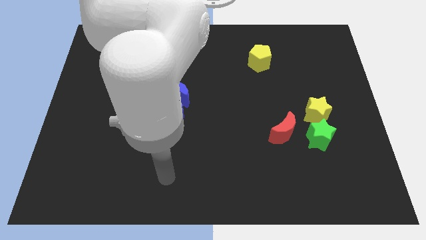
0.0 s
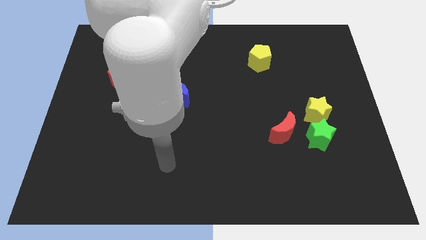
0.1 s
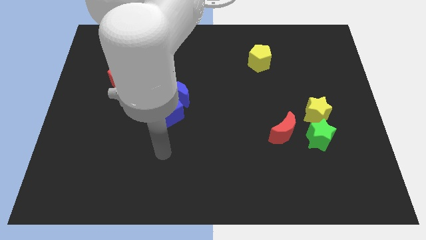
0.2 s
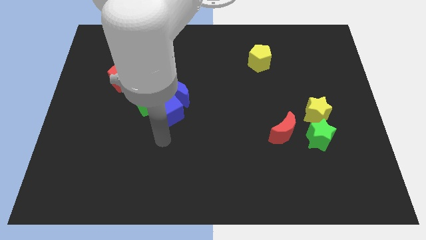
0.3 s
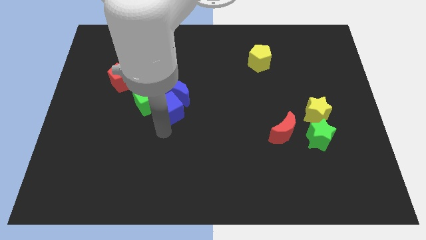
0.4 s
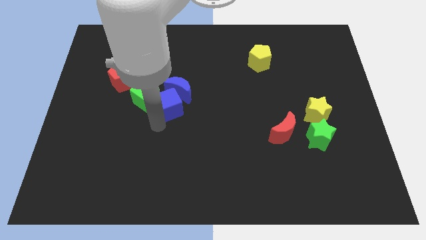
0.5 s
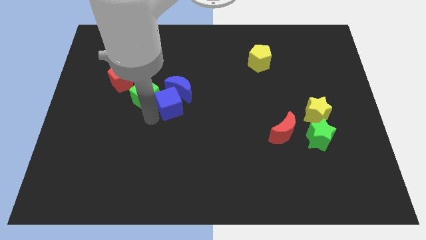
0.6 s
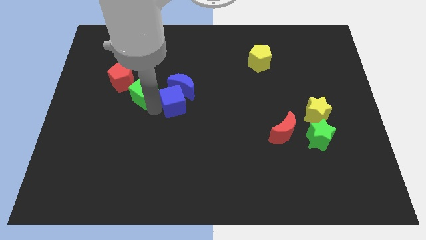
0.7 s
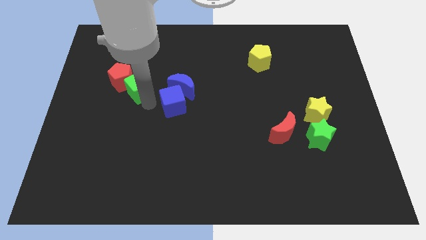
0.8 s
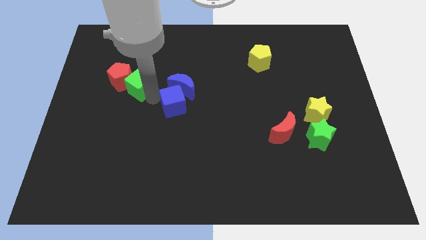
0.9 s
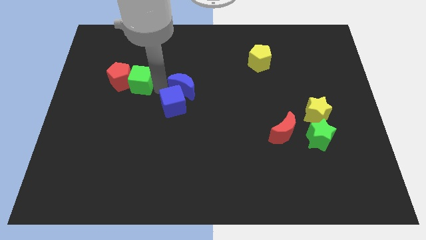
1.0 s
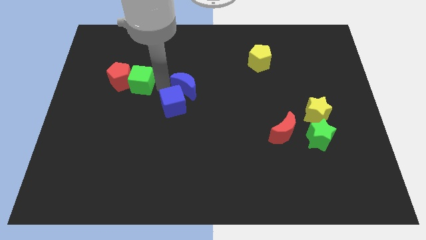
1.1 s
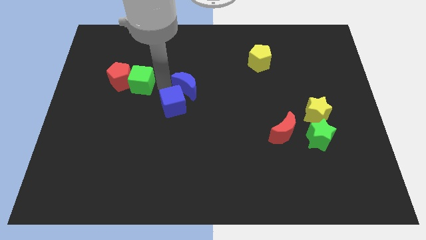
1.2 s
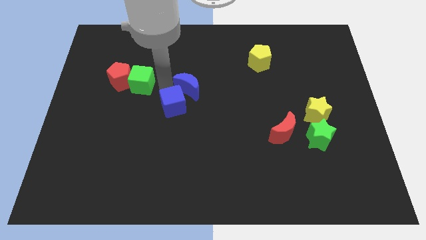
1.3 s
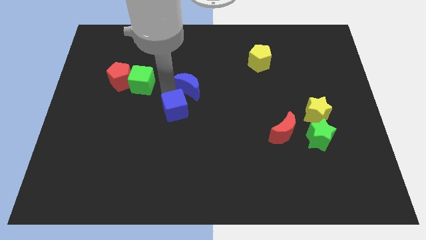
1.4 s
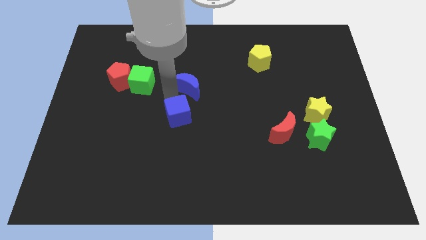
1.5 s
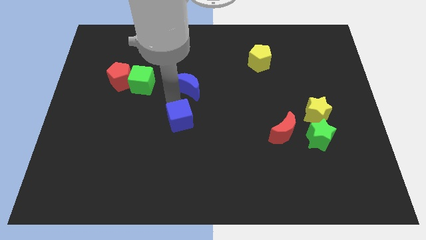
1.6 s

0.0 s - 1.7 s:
pull the blue cube apart from the blue moon and green cube

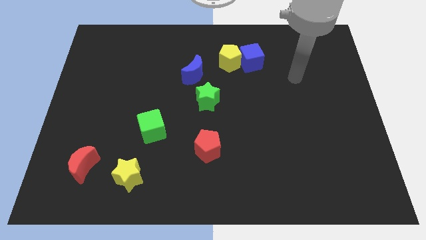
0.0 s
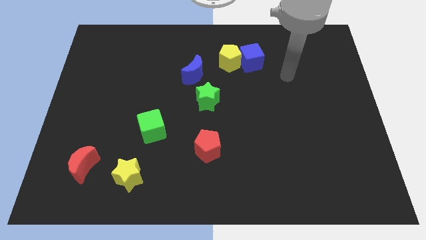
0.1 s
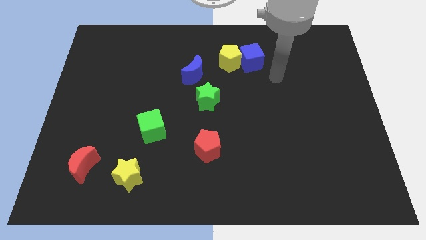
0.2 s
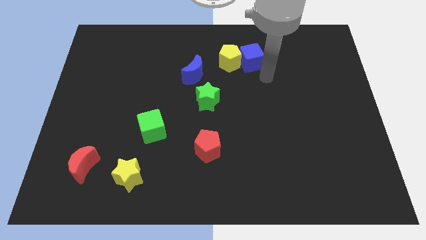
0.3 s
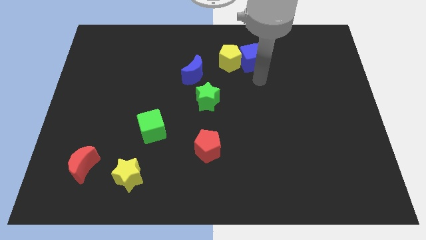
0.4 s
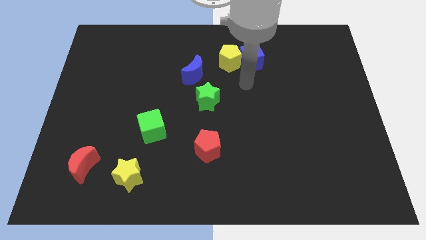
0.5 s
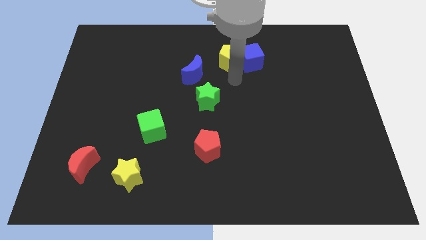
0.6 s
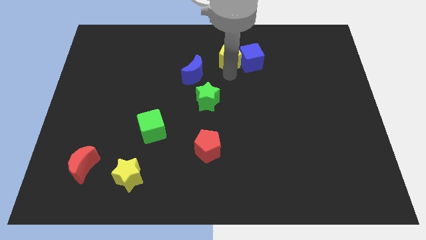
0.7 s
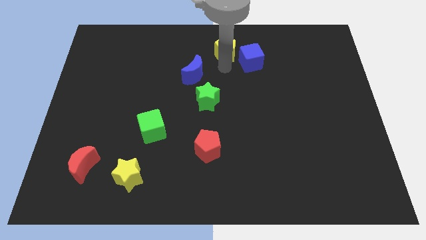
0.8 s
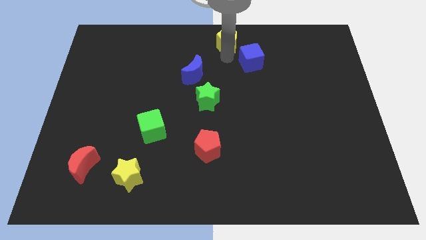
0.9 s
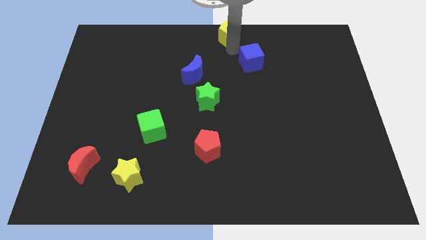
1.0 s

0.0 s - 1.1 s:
pull the blue cube apart from the yellow pentagon

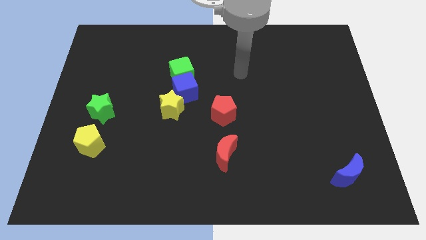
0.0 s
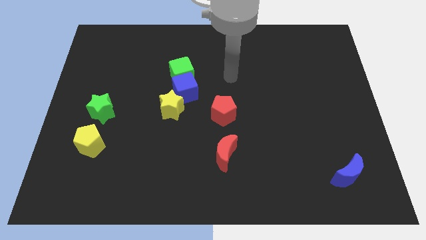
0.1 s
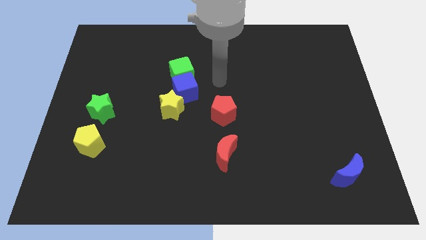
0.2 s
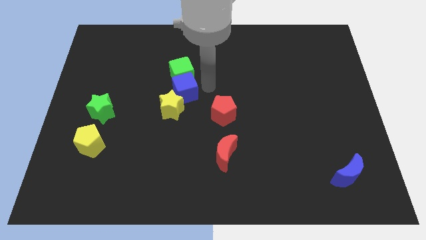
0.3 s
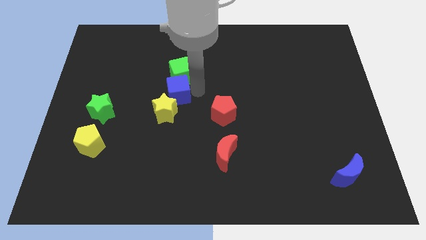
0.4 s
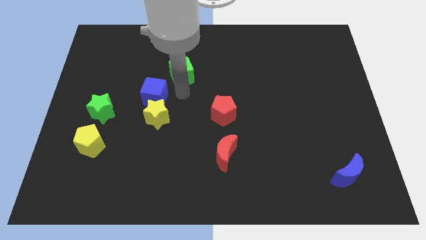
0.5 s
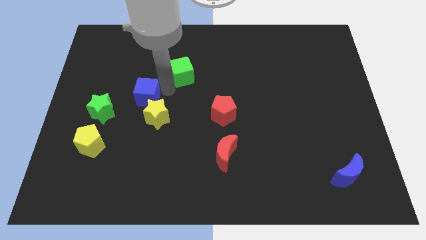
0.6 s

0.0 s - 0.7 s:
separate the green cube from the blue cube

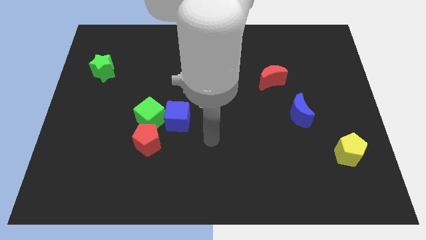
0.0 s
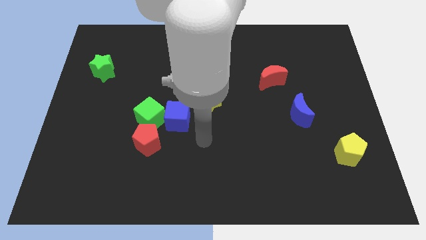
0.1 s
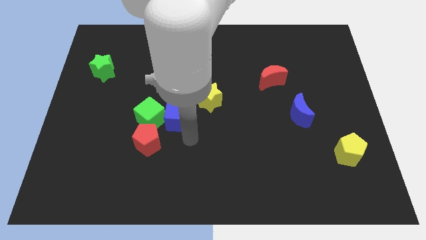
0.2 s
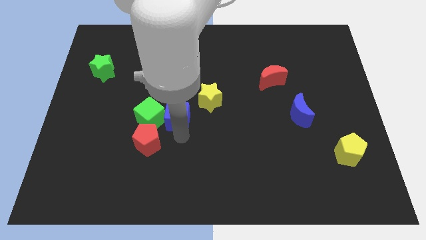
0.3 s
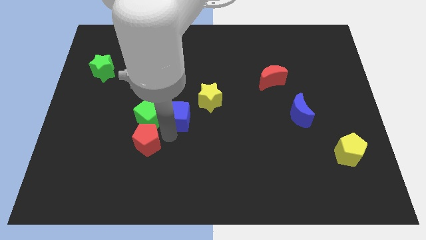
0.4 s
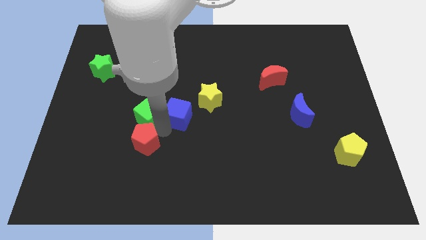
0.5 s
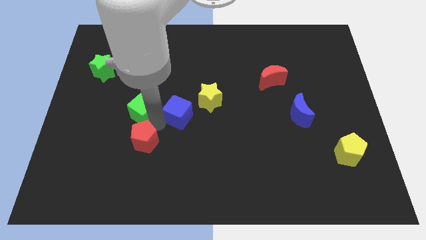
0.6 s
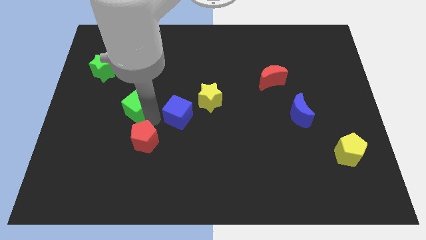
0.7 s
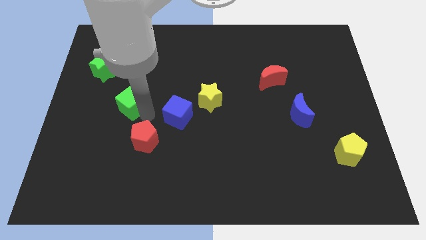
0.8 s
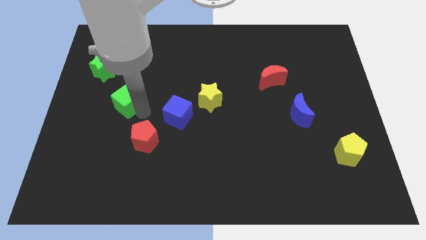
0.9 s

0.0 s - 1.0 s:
pull the green cube apart from the blue cube and red pentagon

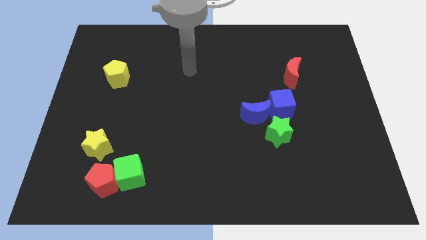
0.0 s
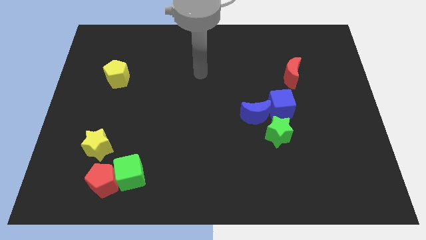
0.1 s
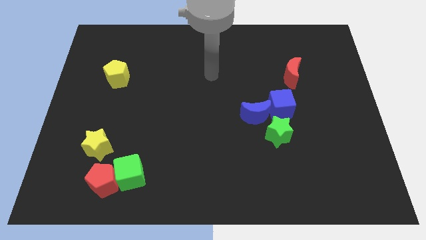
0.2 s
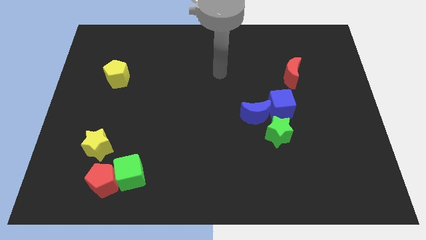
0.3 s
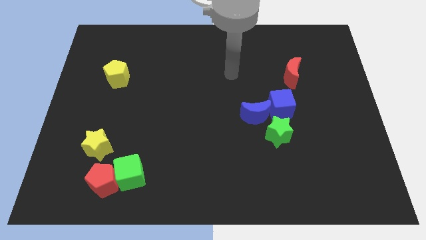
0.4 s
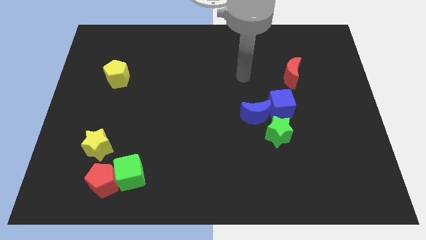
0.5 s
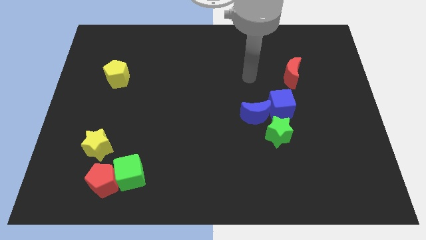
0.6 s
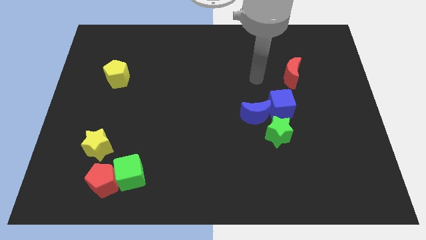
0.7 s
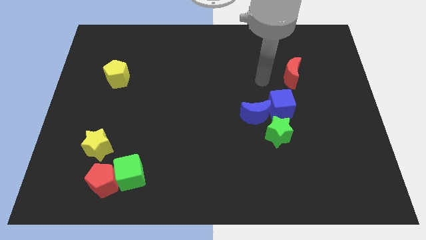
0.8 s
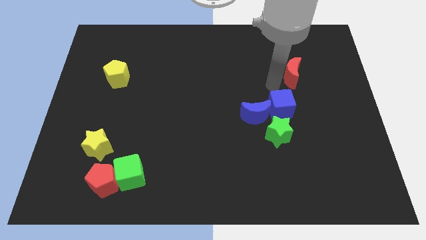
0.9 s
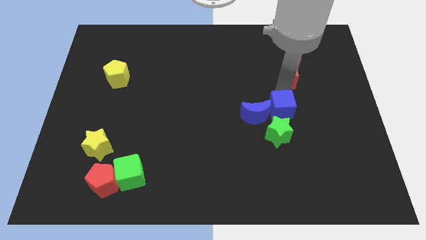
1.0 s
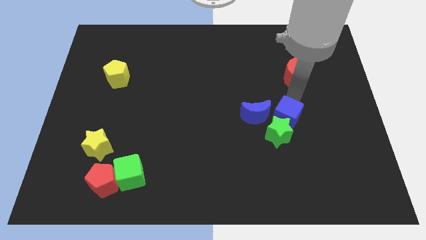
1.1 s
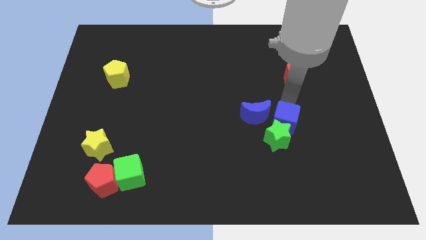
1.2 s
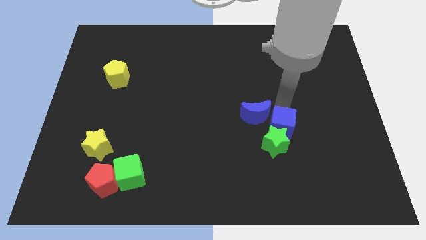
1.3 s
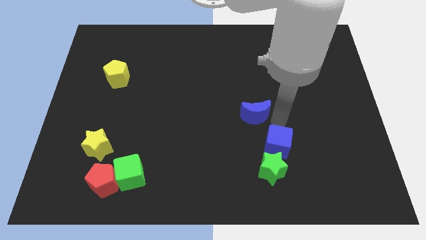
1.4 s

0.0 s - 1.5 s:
move the blue moon away from the blue cube and green star

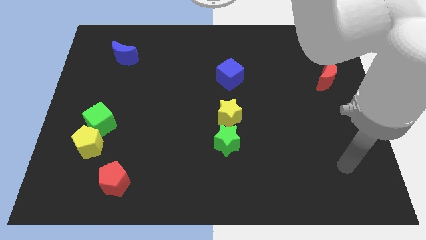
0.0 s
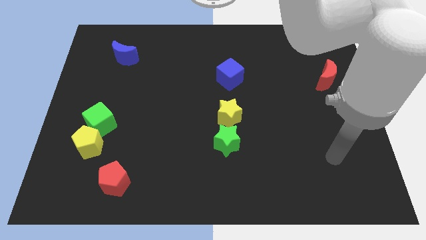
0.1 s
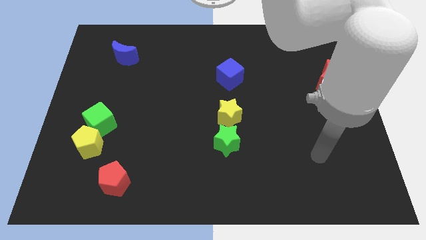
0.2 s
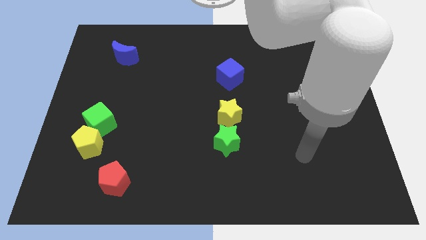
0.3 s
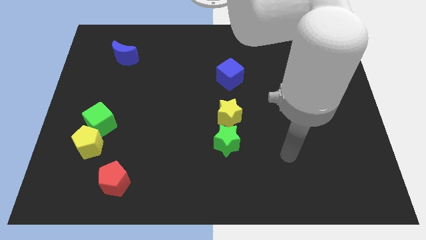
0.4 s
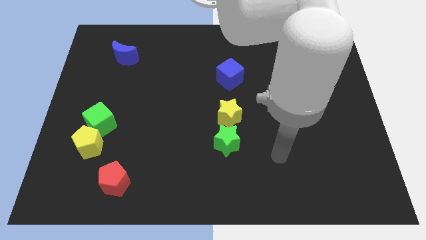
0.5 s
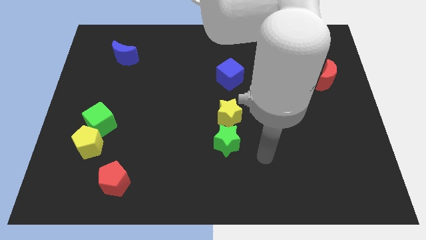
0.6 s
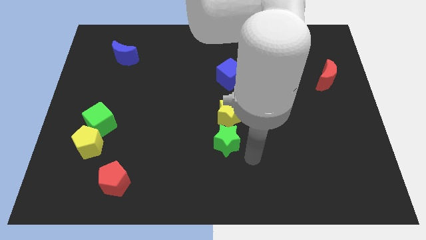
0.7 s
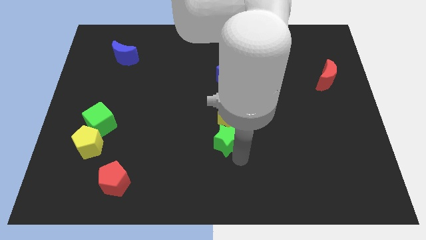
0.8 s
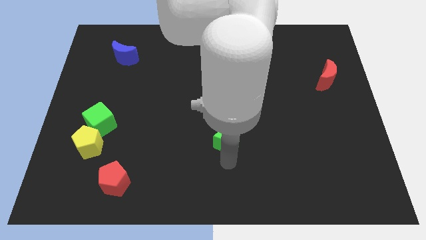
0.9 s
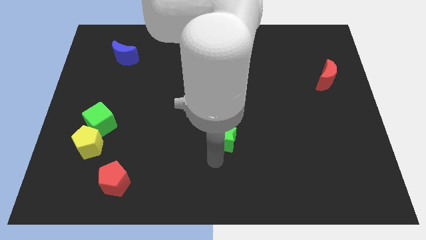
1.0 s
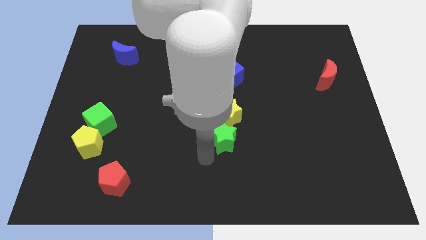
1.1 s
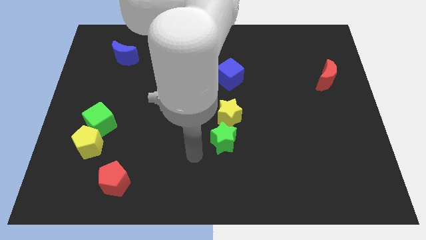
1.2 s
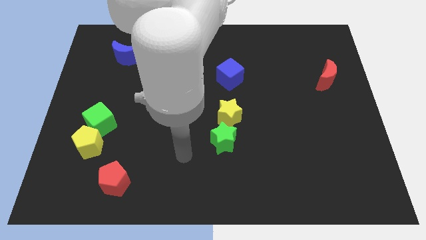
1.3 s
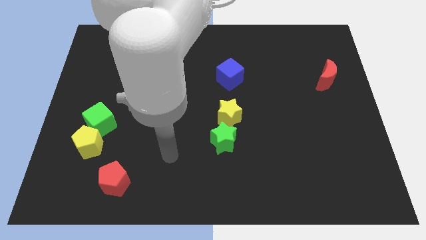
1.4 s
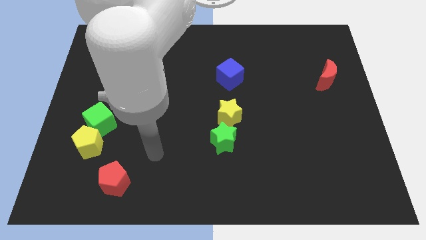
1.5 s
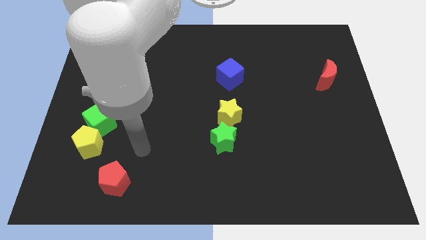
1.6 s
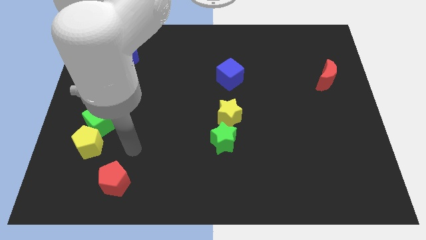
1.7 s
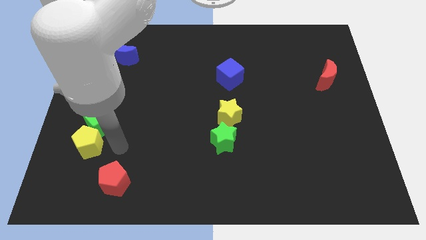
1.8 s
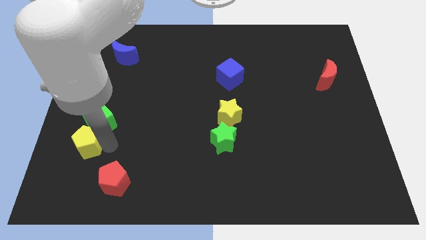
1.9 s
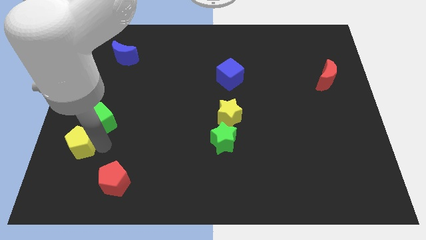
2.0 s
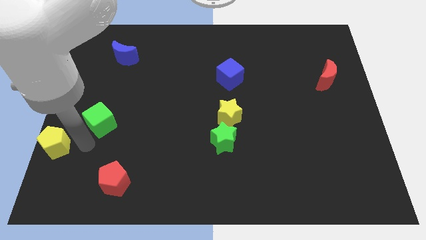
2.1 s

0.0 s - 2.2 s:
pull the green cube apart from the yellow pentagon

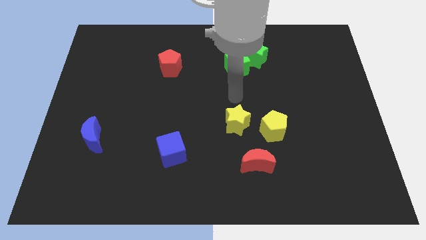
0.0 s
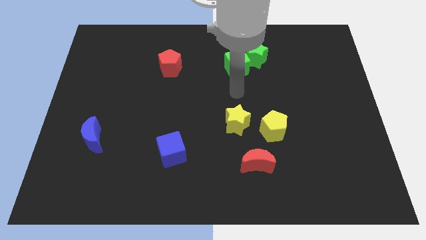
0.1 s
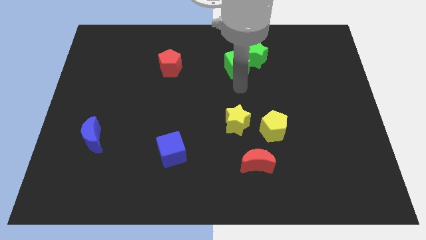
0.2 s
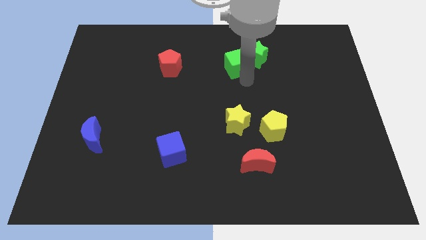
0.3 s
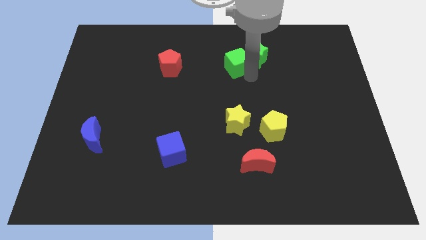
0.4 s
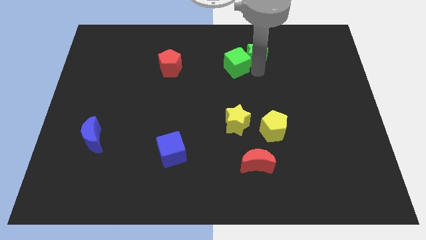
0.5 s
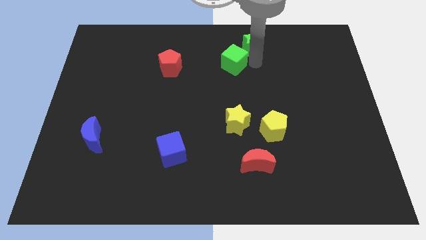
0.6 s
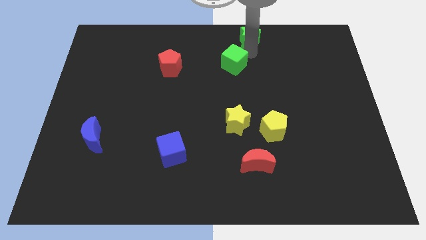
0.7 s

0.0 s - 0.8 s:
separate the green cube from the green star

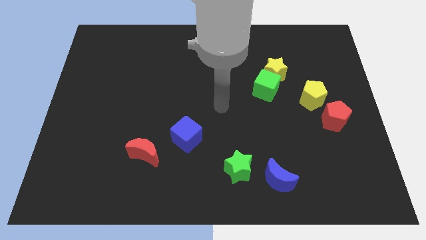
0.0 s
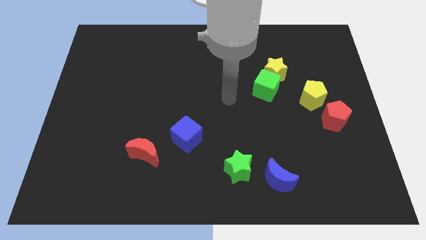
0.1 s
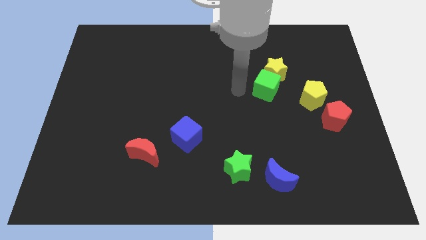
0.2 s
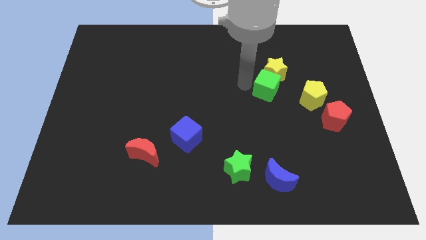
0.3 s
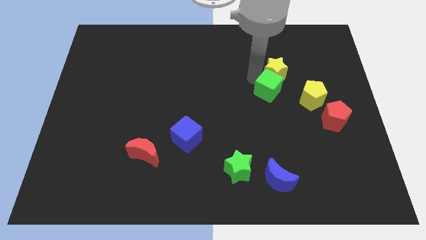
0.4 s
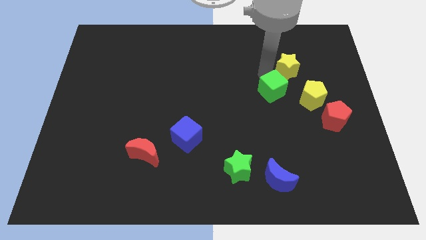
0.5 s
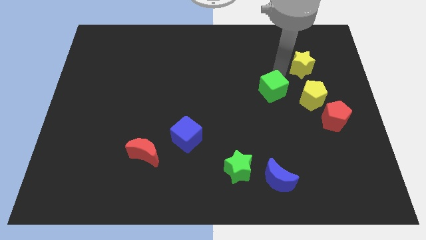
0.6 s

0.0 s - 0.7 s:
separate the green cube from the yellow star
